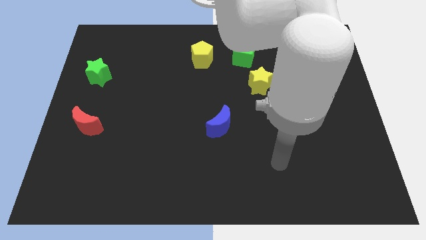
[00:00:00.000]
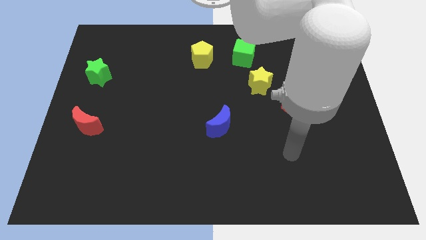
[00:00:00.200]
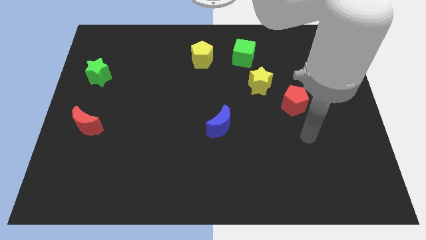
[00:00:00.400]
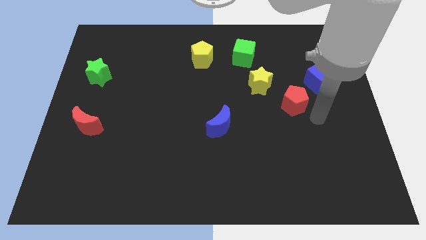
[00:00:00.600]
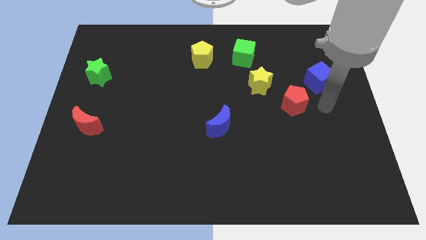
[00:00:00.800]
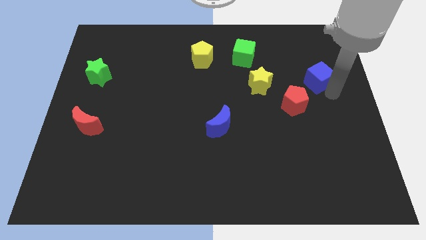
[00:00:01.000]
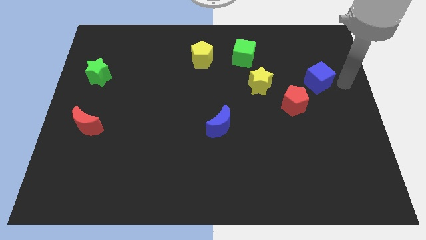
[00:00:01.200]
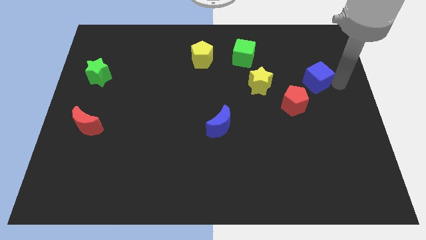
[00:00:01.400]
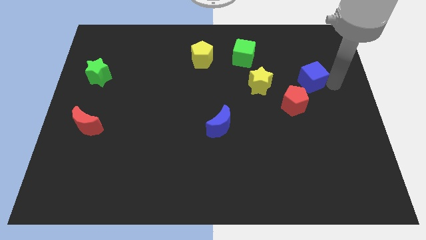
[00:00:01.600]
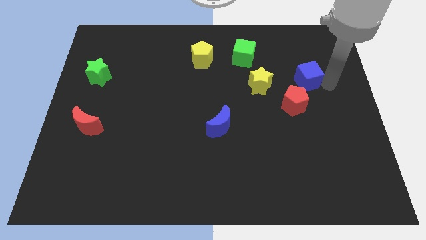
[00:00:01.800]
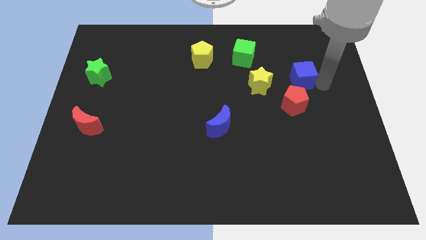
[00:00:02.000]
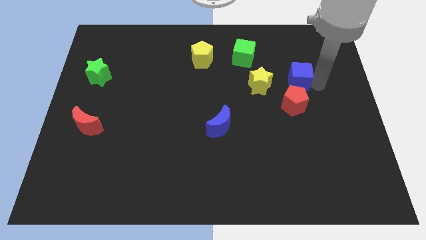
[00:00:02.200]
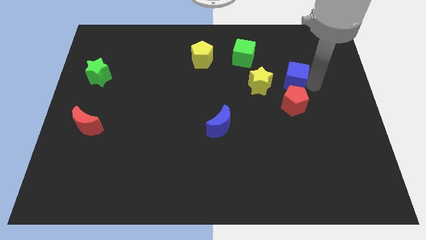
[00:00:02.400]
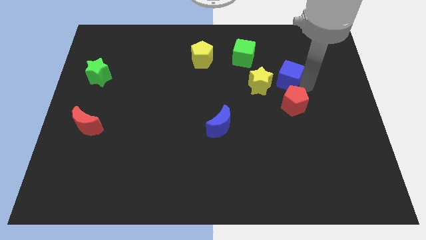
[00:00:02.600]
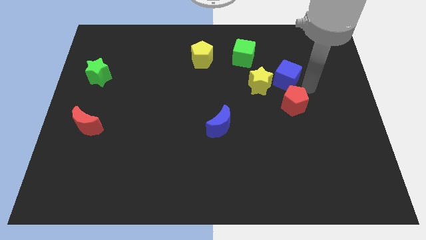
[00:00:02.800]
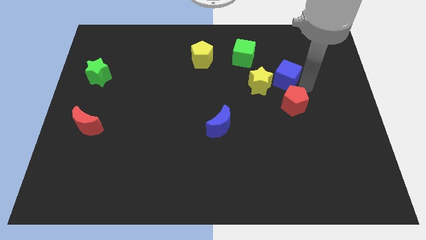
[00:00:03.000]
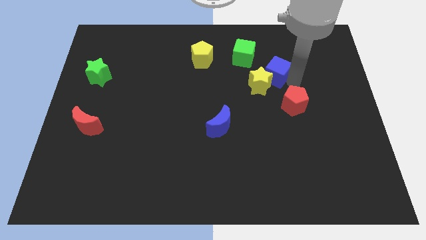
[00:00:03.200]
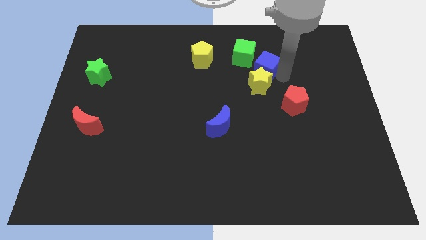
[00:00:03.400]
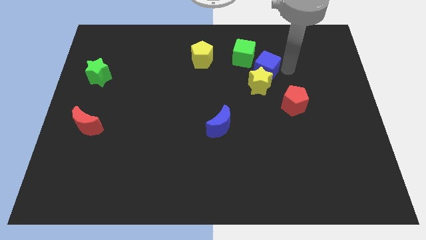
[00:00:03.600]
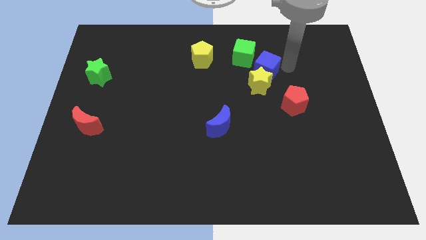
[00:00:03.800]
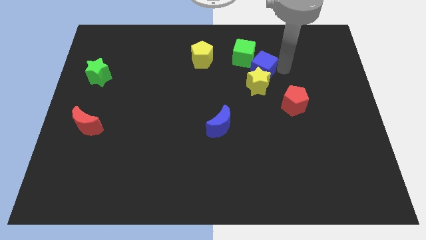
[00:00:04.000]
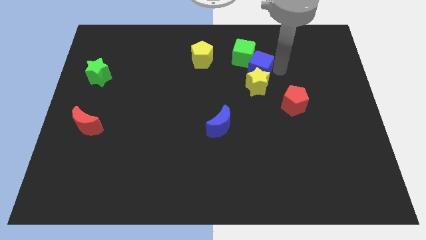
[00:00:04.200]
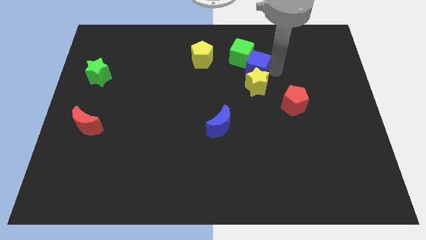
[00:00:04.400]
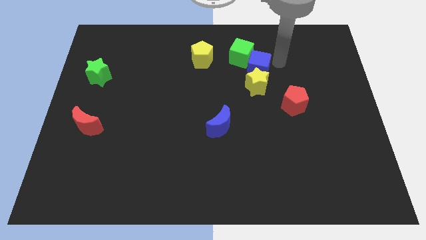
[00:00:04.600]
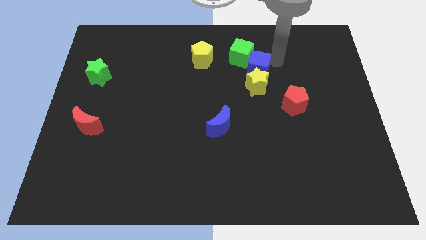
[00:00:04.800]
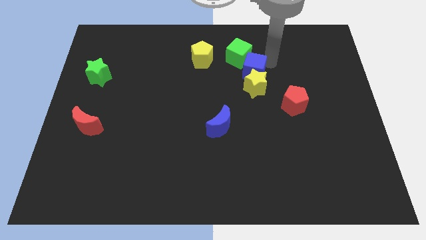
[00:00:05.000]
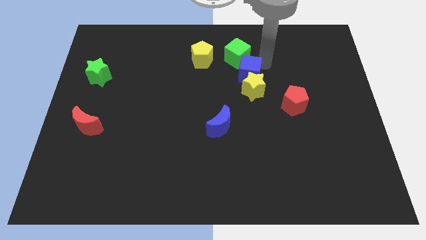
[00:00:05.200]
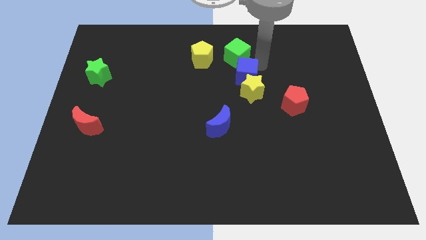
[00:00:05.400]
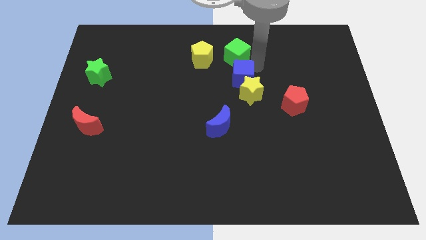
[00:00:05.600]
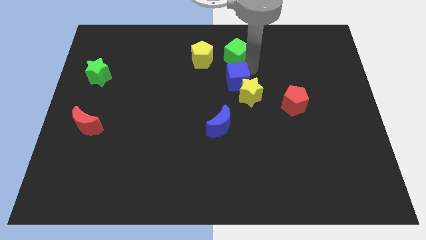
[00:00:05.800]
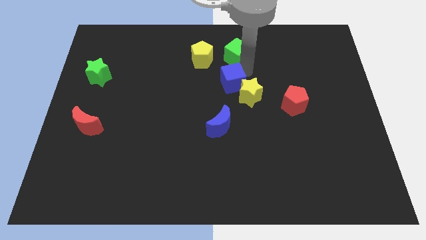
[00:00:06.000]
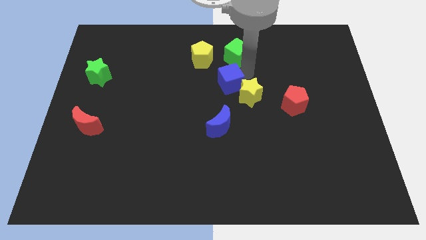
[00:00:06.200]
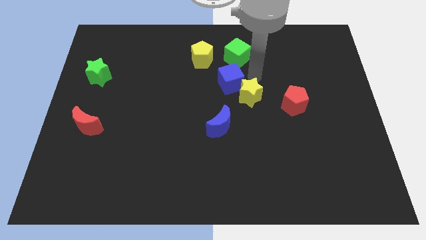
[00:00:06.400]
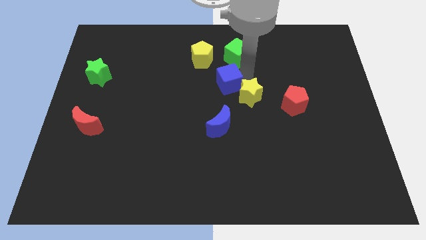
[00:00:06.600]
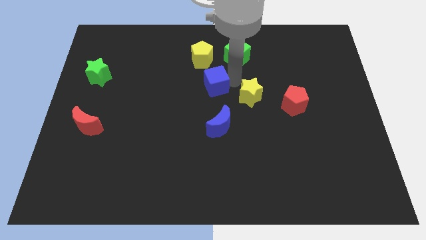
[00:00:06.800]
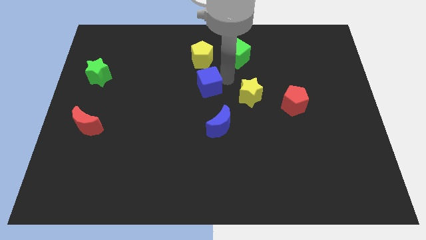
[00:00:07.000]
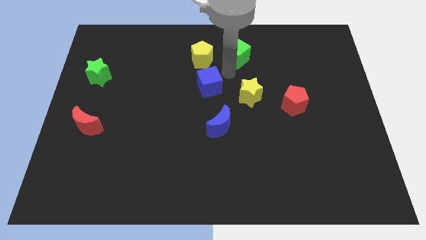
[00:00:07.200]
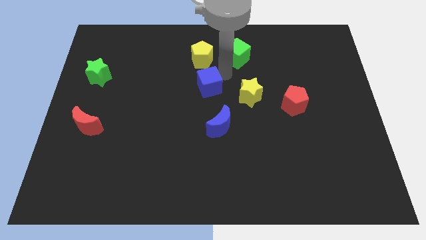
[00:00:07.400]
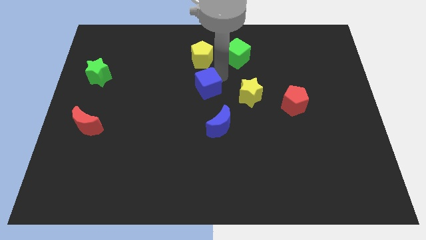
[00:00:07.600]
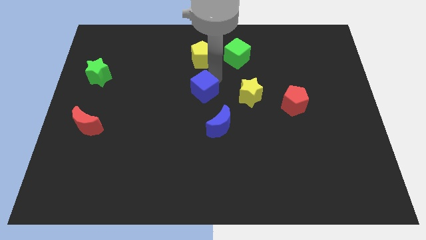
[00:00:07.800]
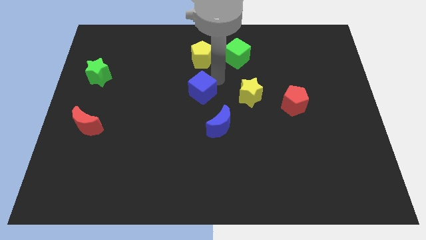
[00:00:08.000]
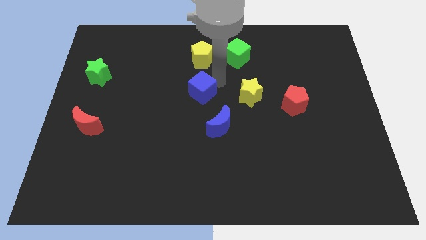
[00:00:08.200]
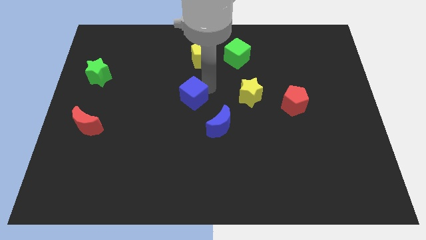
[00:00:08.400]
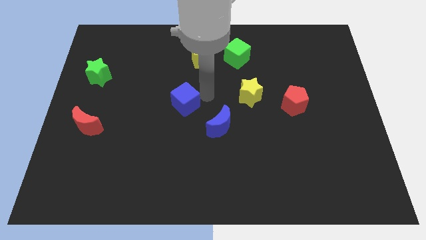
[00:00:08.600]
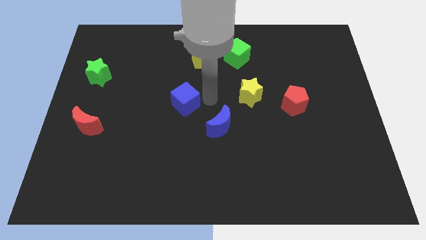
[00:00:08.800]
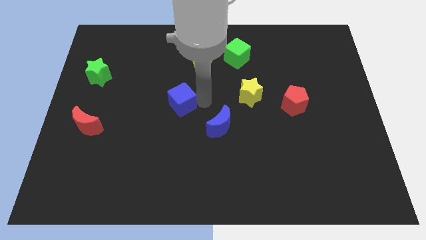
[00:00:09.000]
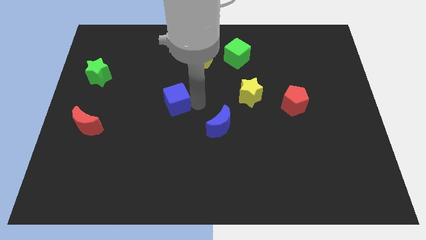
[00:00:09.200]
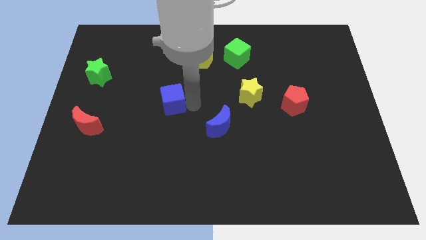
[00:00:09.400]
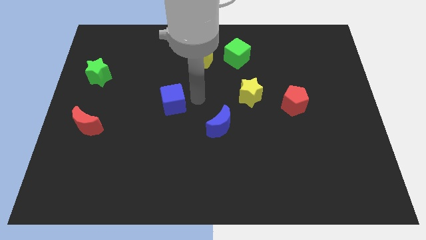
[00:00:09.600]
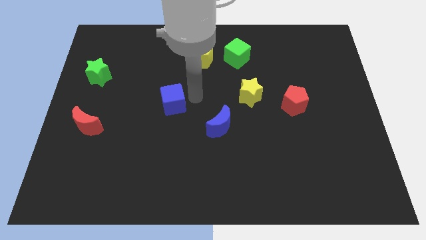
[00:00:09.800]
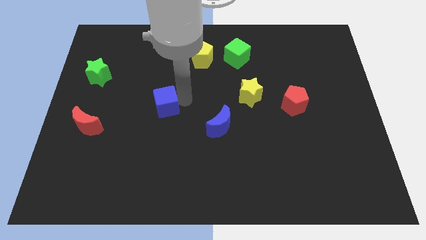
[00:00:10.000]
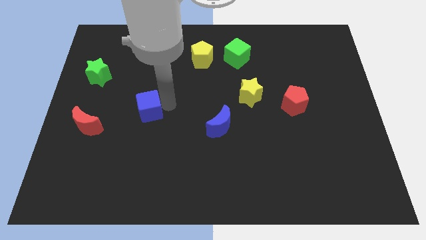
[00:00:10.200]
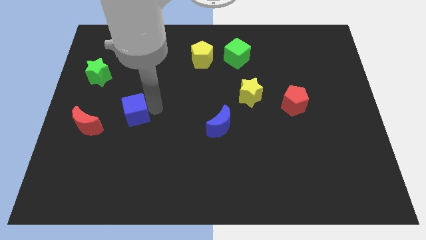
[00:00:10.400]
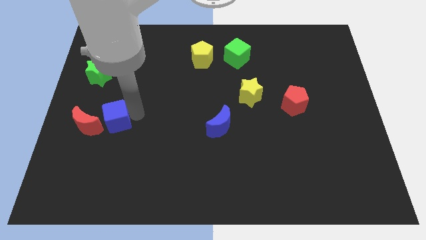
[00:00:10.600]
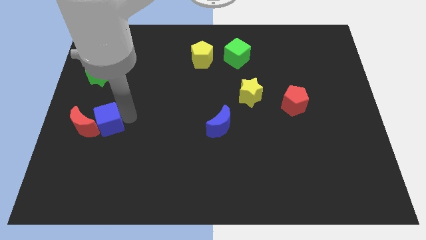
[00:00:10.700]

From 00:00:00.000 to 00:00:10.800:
put the blue cube towards the red moon

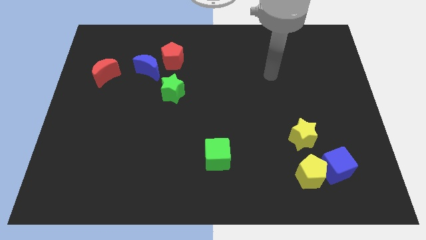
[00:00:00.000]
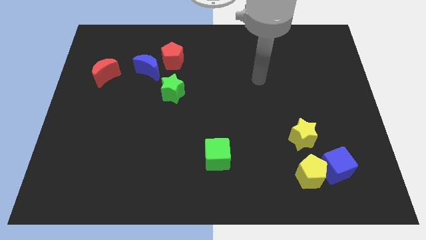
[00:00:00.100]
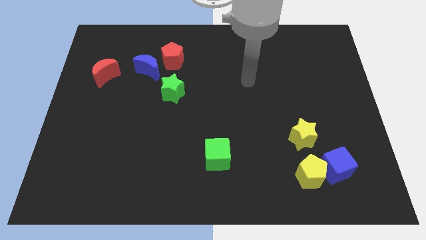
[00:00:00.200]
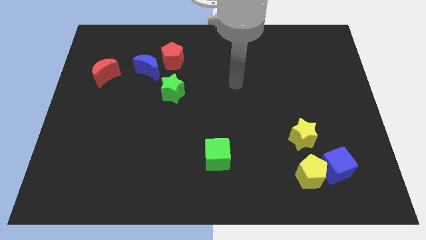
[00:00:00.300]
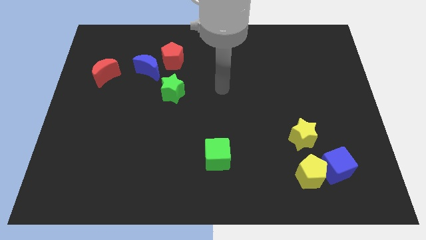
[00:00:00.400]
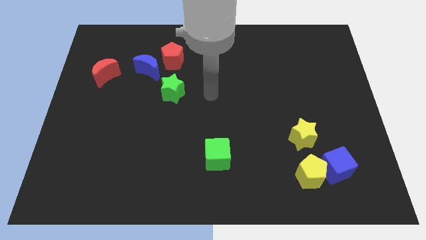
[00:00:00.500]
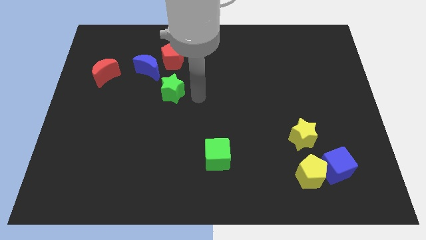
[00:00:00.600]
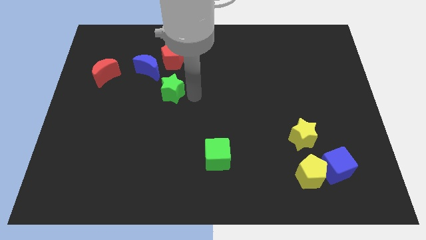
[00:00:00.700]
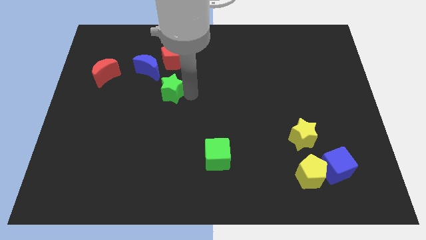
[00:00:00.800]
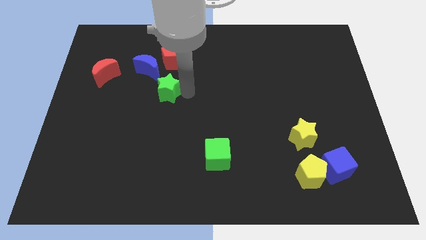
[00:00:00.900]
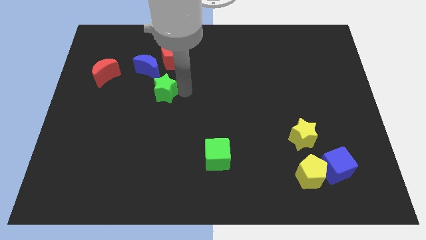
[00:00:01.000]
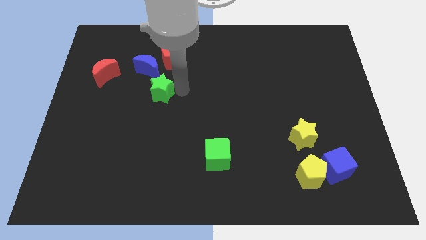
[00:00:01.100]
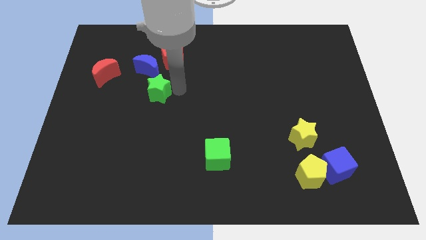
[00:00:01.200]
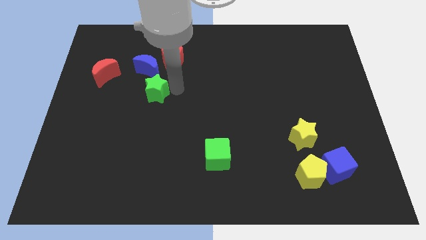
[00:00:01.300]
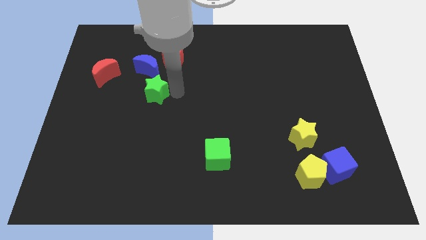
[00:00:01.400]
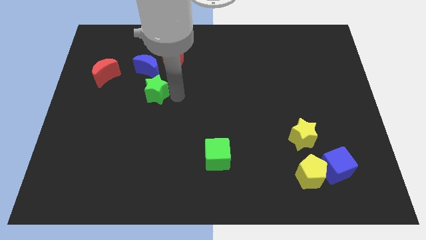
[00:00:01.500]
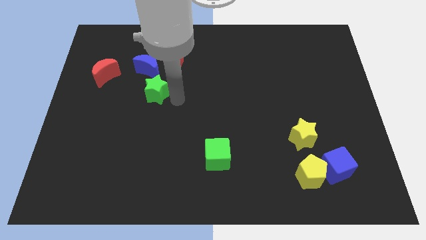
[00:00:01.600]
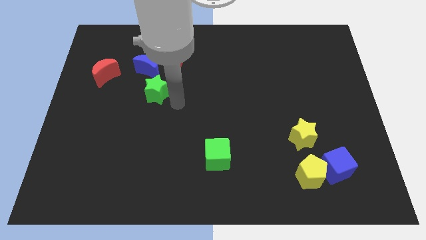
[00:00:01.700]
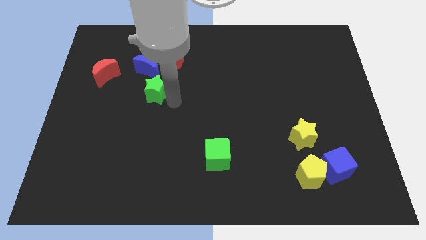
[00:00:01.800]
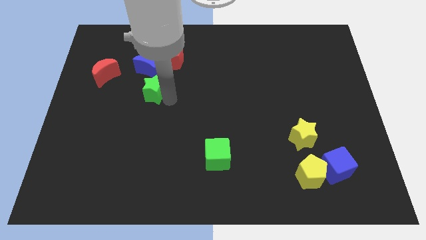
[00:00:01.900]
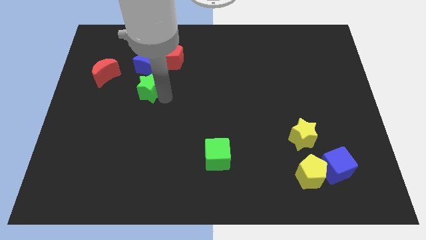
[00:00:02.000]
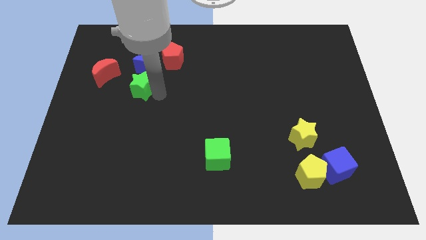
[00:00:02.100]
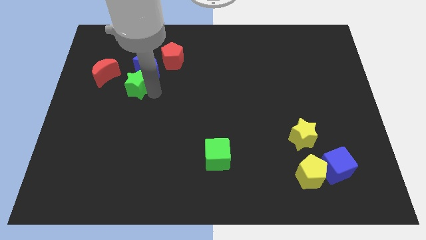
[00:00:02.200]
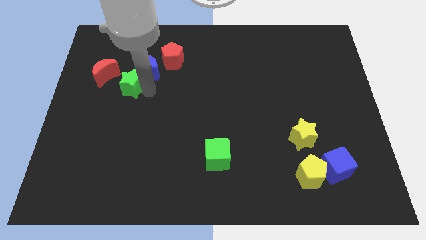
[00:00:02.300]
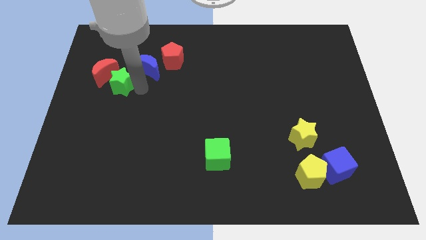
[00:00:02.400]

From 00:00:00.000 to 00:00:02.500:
move the green star close to the red moon
